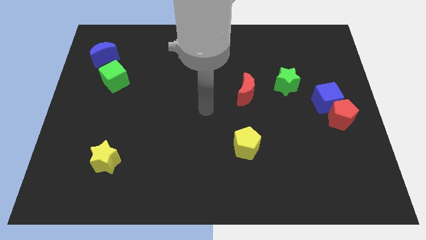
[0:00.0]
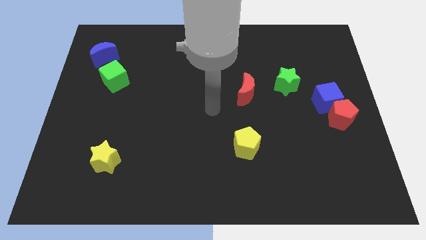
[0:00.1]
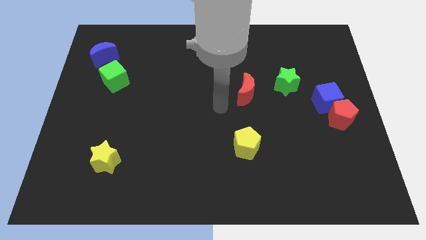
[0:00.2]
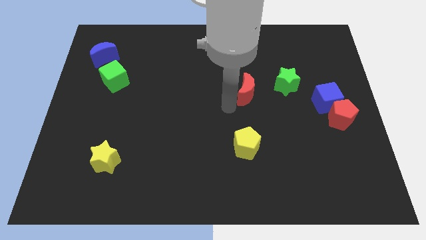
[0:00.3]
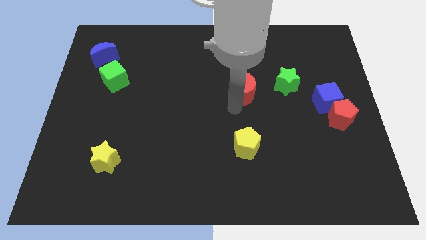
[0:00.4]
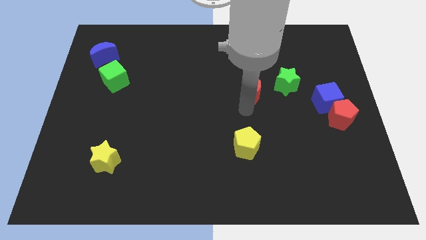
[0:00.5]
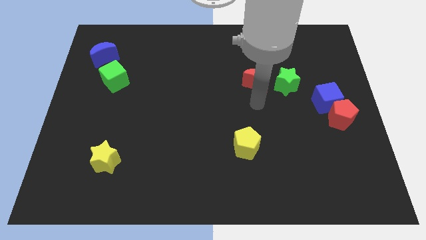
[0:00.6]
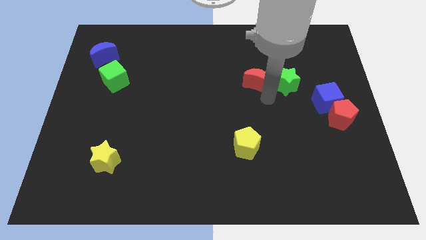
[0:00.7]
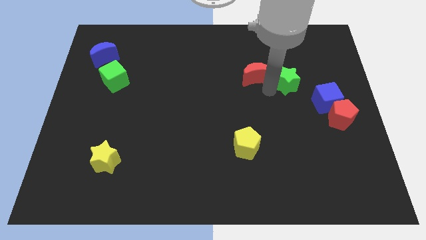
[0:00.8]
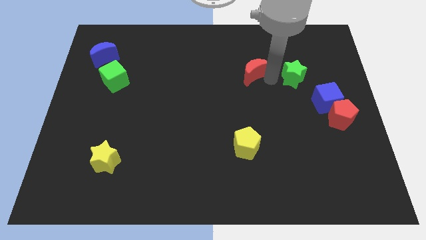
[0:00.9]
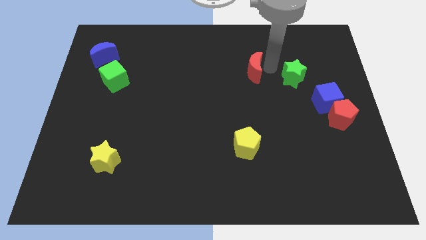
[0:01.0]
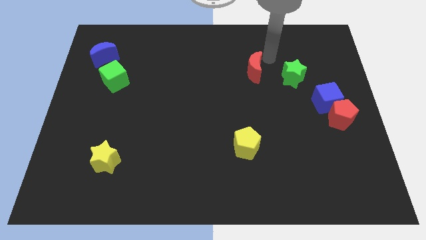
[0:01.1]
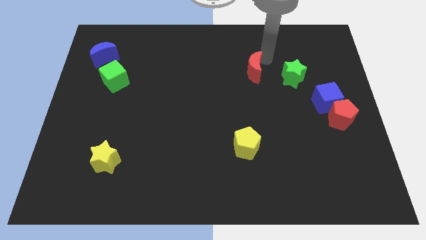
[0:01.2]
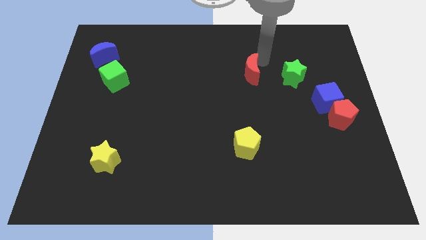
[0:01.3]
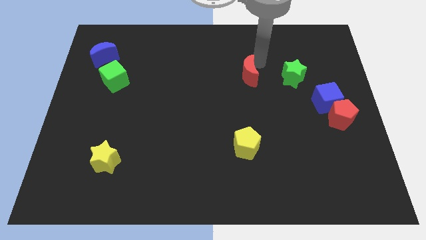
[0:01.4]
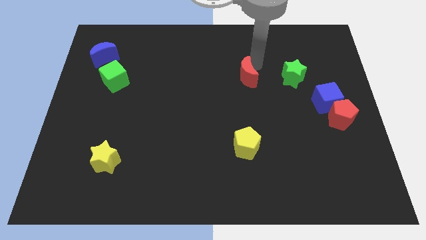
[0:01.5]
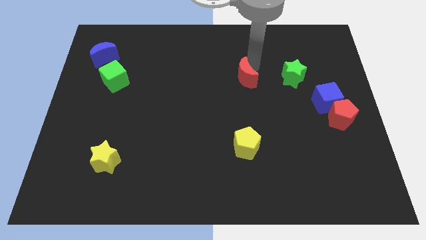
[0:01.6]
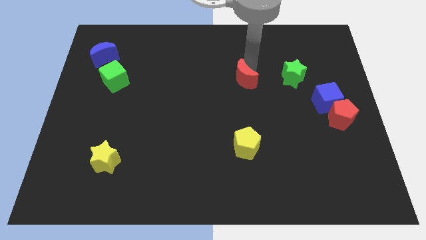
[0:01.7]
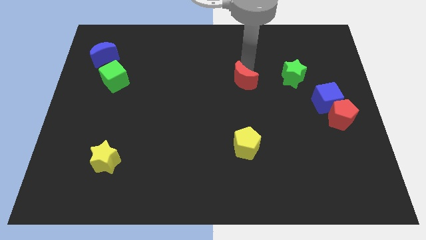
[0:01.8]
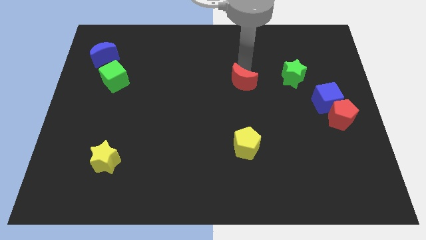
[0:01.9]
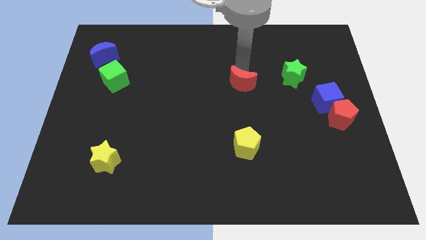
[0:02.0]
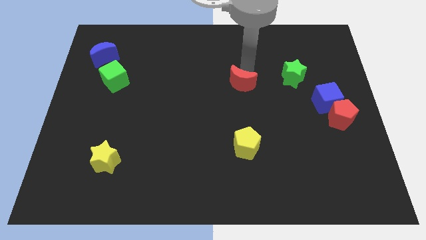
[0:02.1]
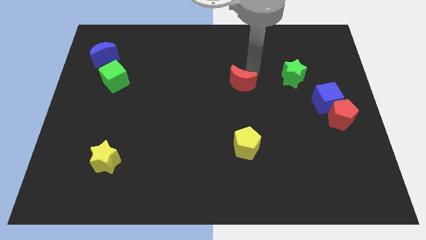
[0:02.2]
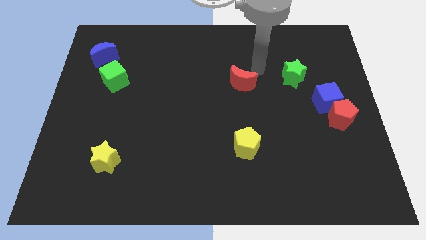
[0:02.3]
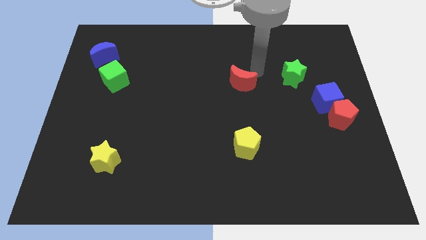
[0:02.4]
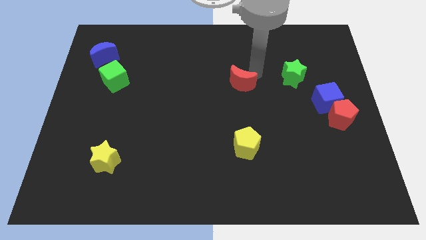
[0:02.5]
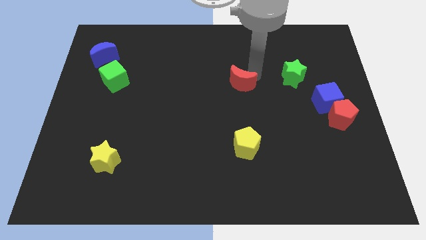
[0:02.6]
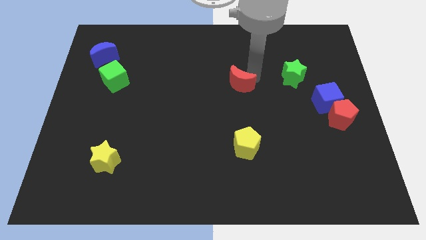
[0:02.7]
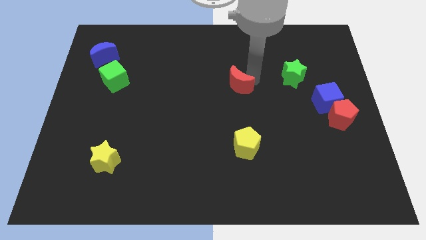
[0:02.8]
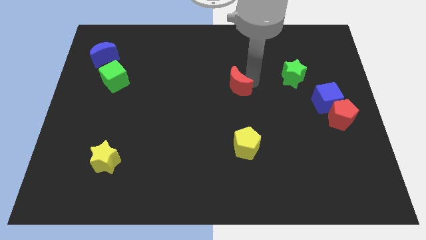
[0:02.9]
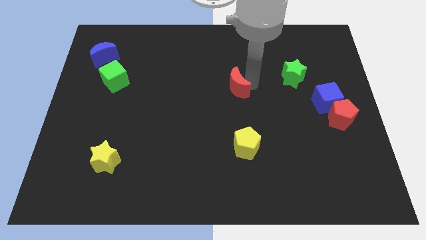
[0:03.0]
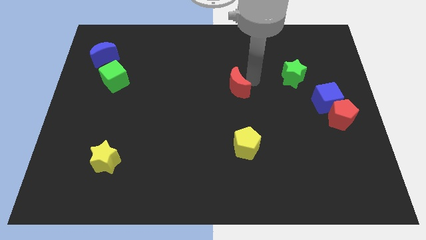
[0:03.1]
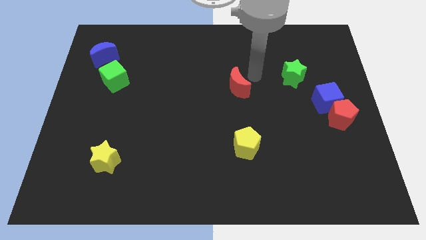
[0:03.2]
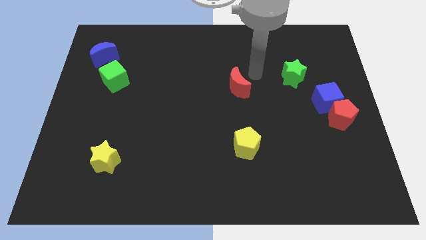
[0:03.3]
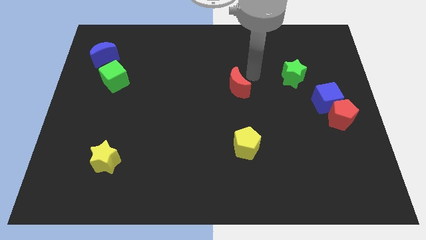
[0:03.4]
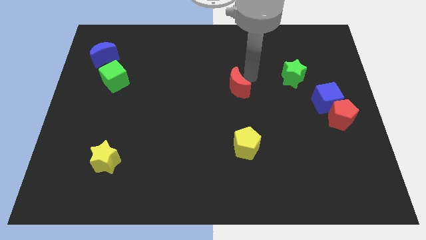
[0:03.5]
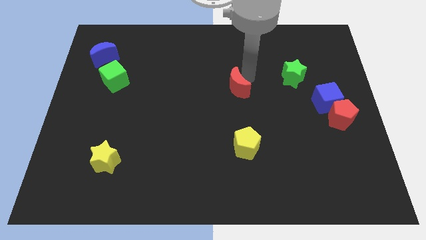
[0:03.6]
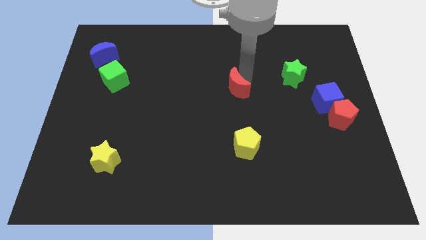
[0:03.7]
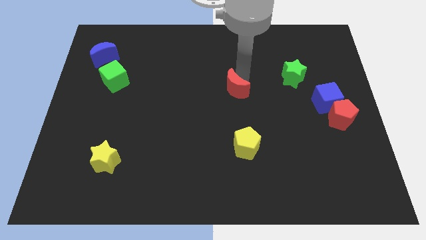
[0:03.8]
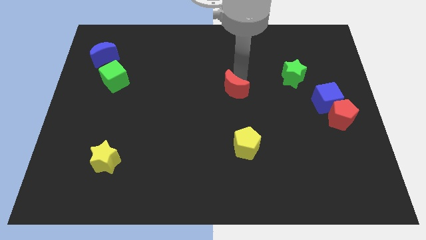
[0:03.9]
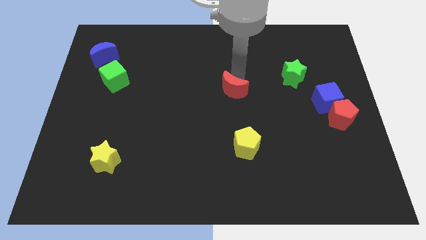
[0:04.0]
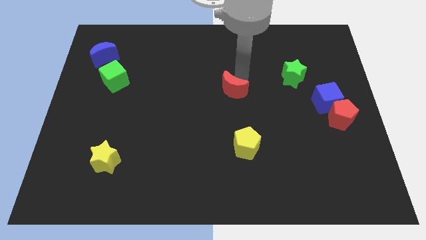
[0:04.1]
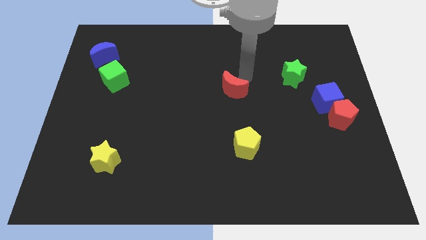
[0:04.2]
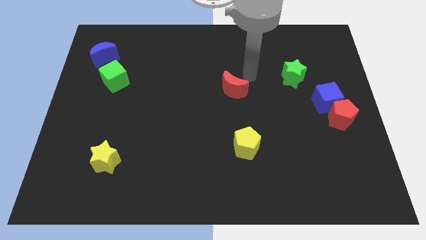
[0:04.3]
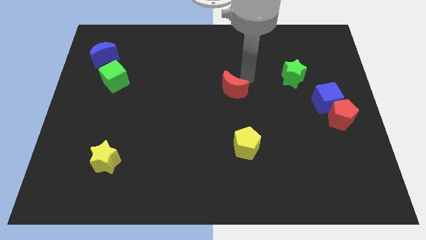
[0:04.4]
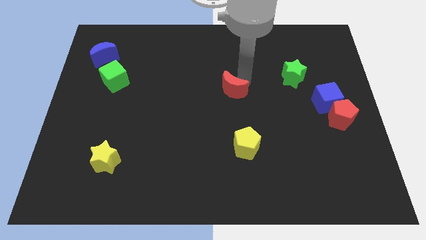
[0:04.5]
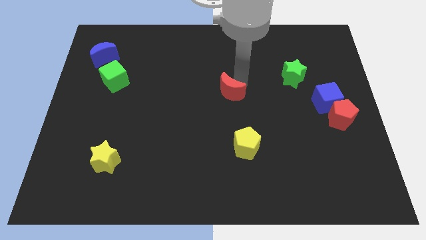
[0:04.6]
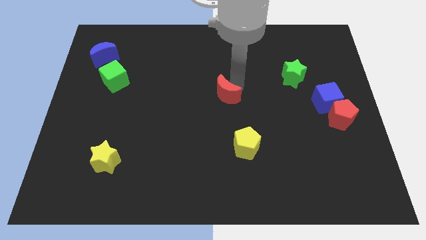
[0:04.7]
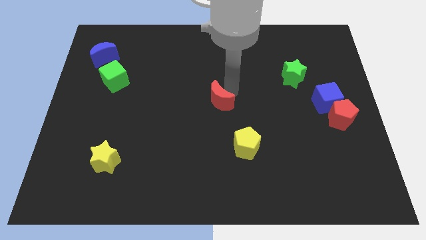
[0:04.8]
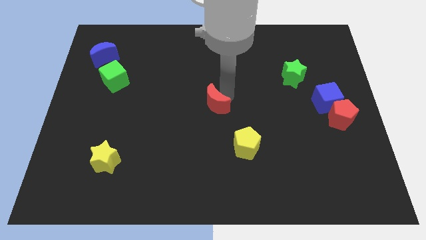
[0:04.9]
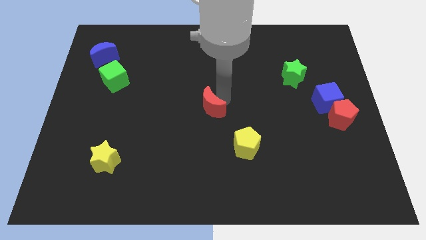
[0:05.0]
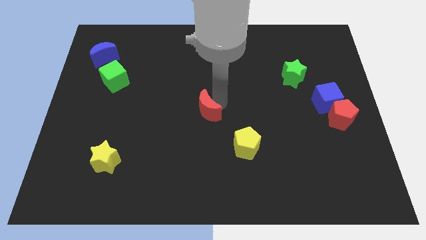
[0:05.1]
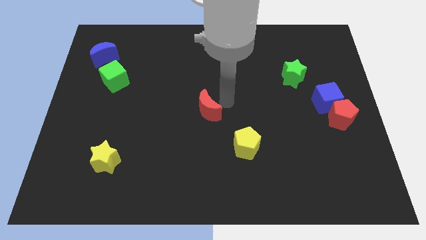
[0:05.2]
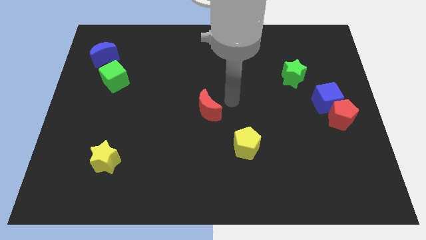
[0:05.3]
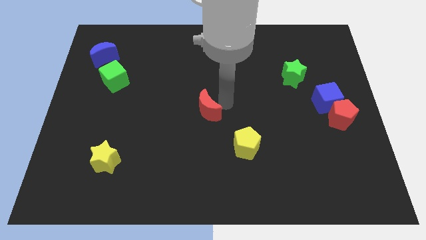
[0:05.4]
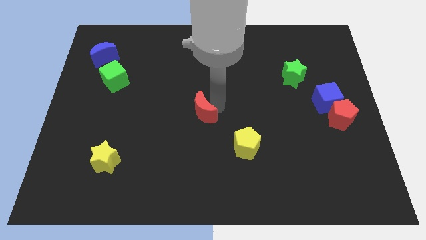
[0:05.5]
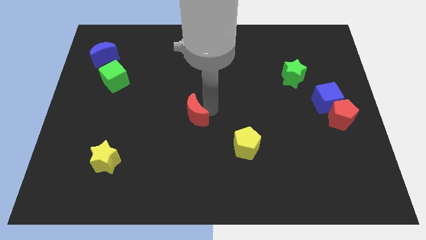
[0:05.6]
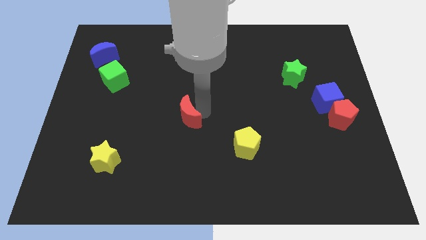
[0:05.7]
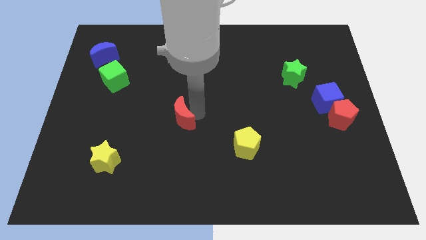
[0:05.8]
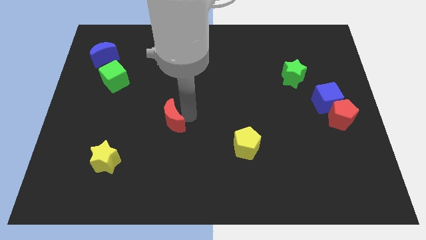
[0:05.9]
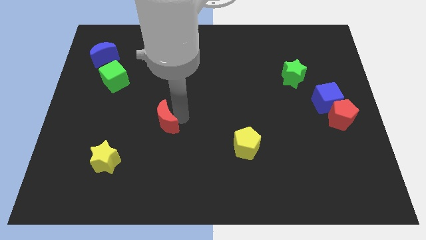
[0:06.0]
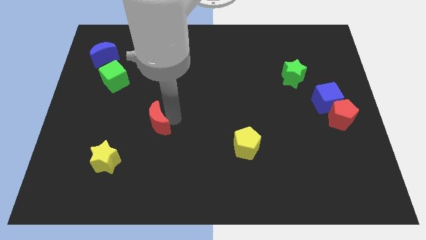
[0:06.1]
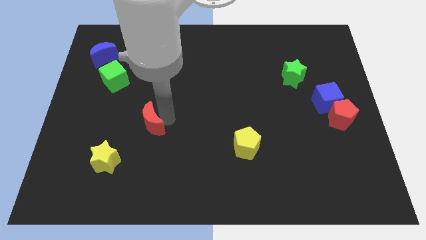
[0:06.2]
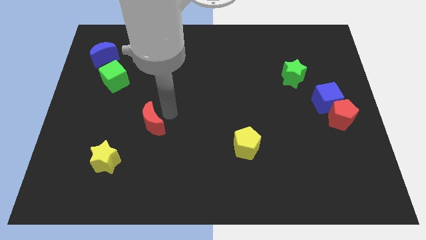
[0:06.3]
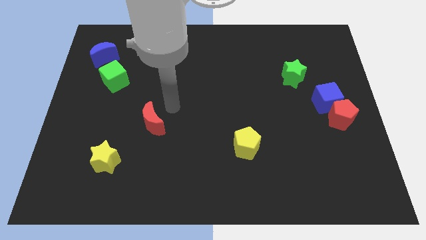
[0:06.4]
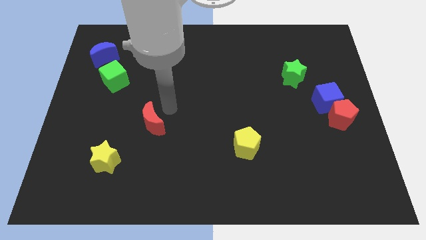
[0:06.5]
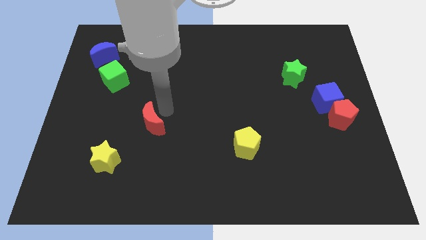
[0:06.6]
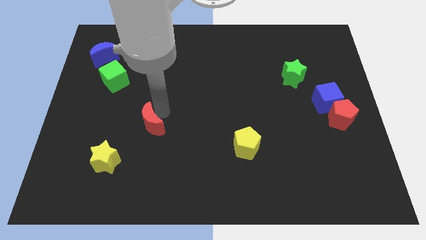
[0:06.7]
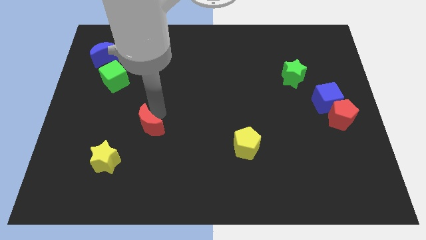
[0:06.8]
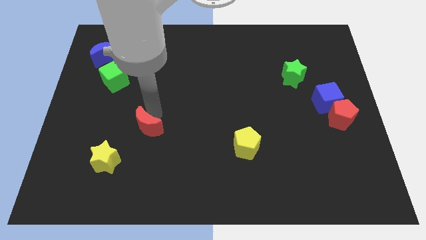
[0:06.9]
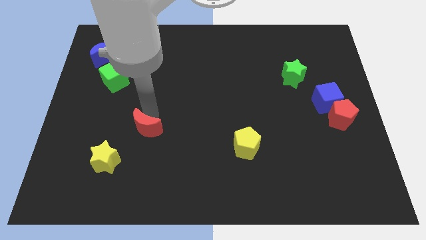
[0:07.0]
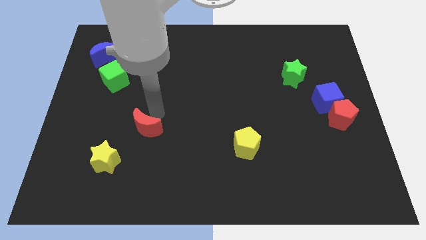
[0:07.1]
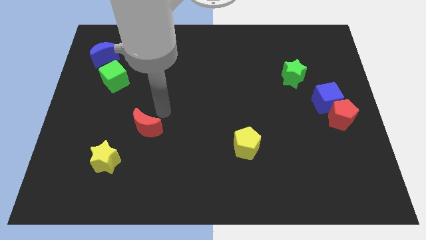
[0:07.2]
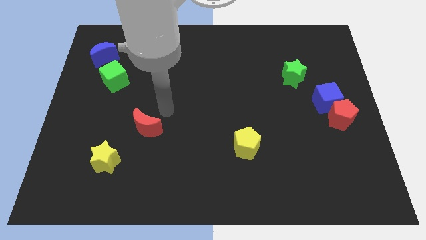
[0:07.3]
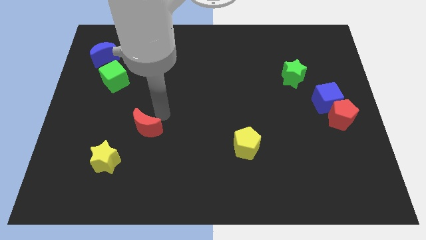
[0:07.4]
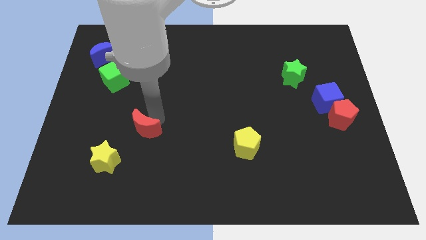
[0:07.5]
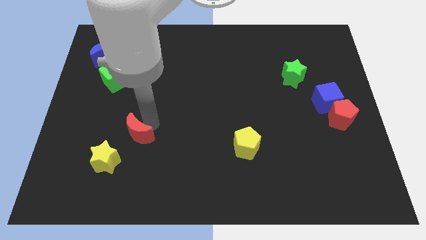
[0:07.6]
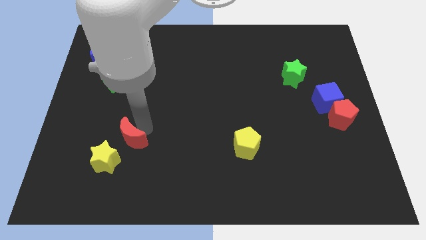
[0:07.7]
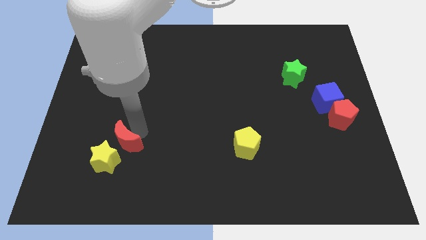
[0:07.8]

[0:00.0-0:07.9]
push the red moon towards the yellow star
